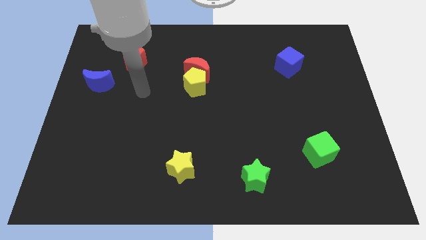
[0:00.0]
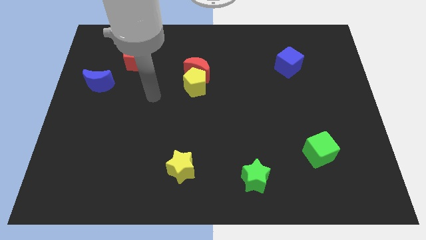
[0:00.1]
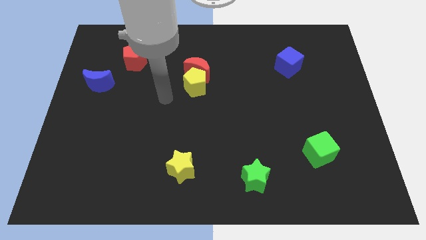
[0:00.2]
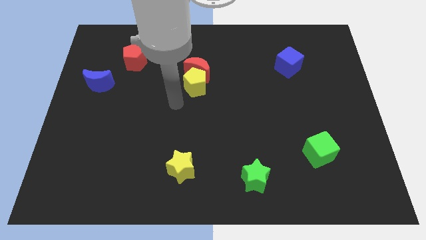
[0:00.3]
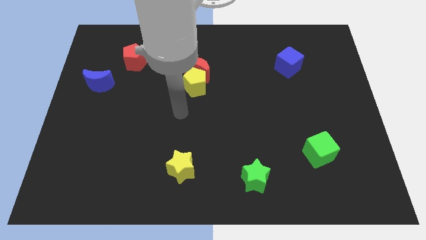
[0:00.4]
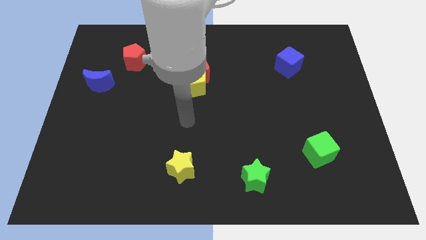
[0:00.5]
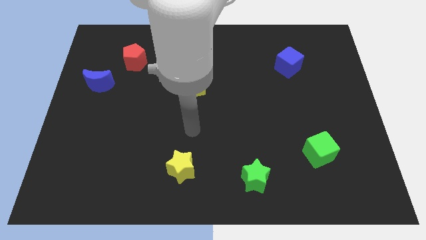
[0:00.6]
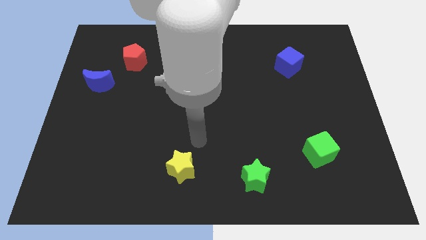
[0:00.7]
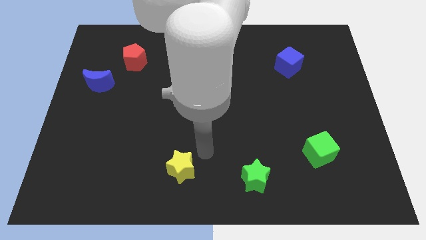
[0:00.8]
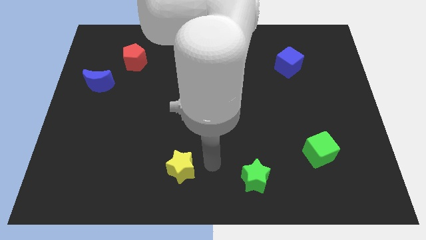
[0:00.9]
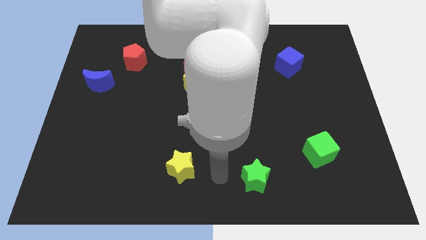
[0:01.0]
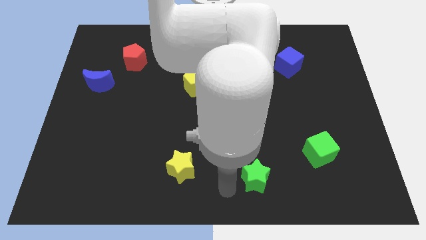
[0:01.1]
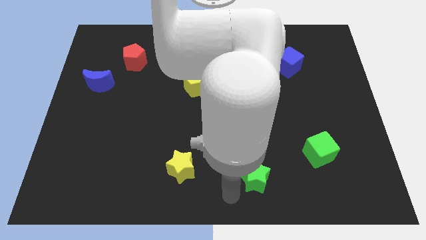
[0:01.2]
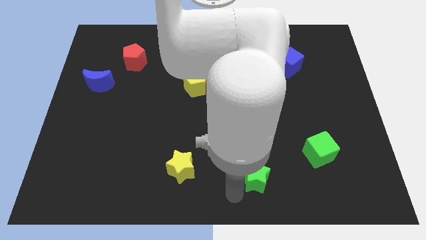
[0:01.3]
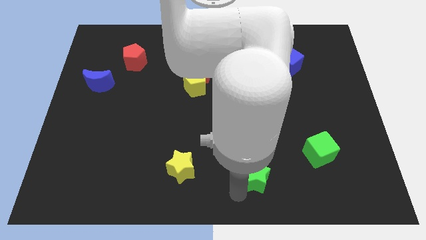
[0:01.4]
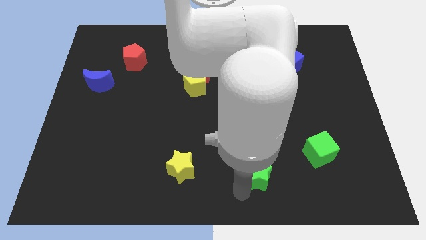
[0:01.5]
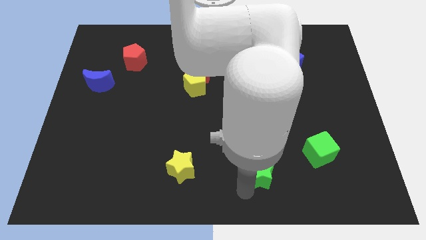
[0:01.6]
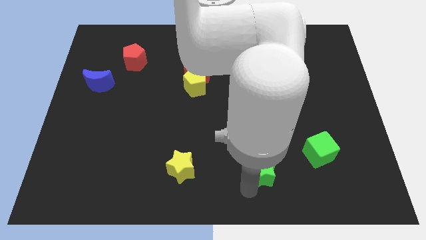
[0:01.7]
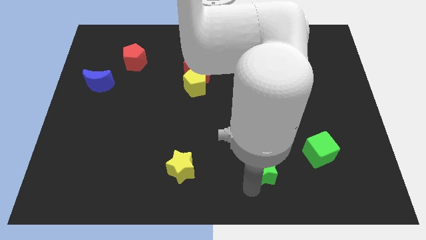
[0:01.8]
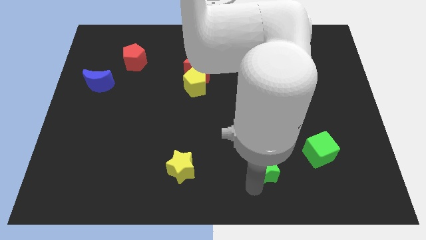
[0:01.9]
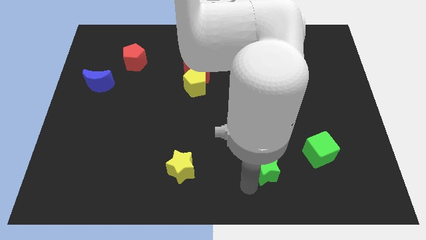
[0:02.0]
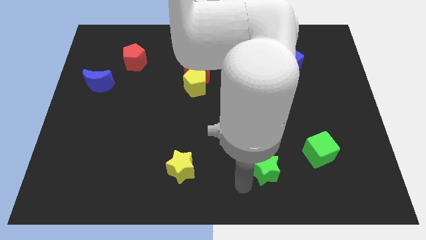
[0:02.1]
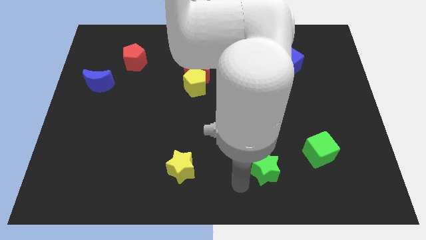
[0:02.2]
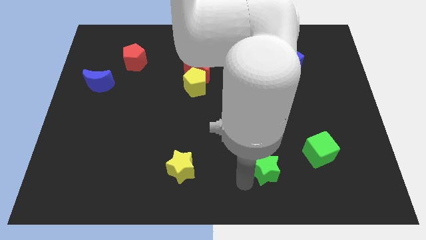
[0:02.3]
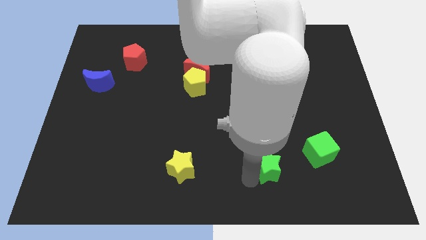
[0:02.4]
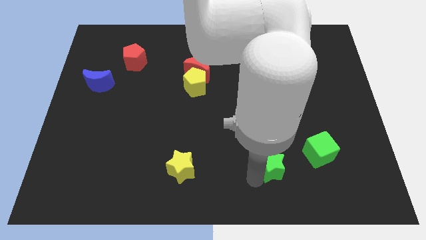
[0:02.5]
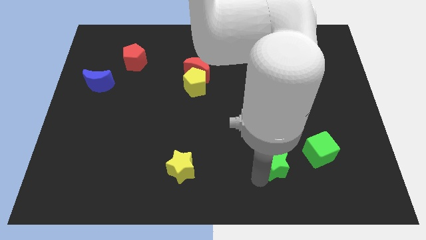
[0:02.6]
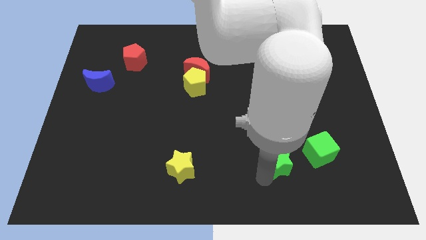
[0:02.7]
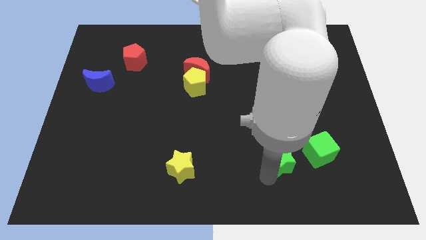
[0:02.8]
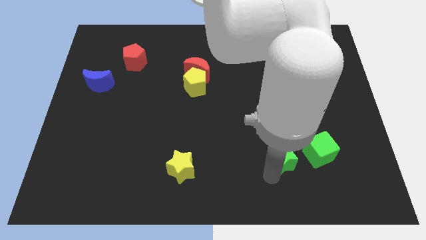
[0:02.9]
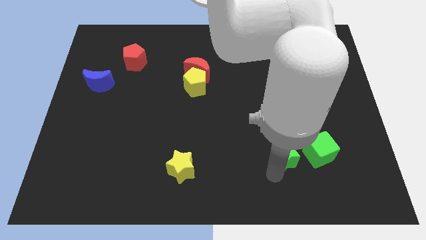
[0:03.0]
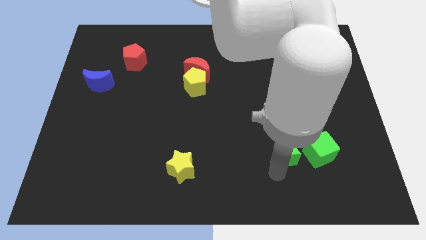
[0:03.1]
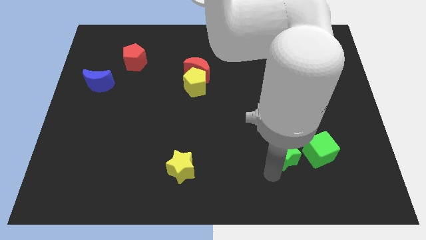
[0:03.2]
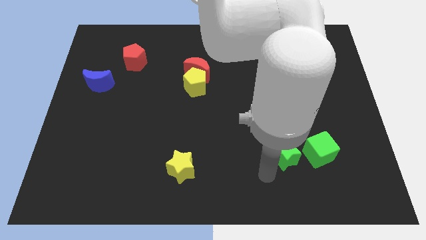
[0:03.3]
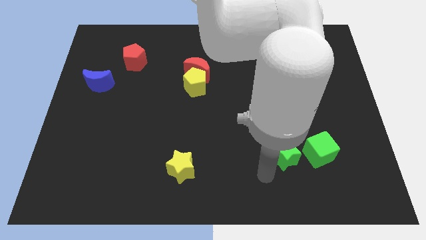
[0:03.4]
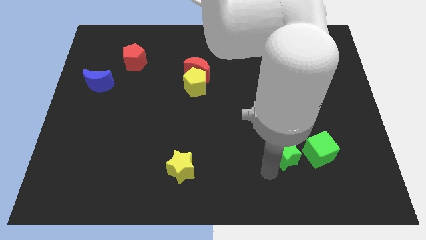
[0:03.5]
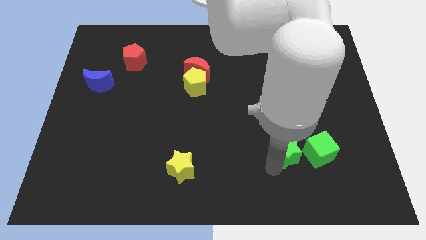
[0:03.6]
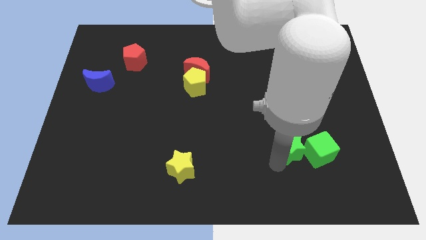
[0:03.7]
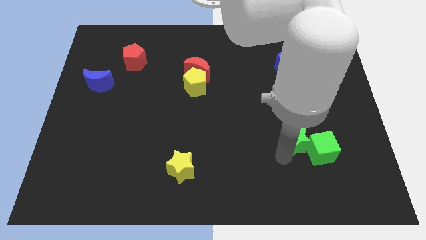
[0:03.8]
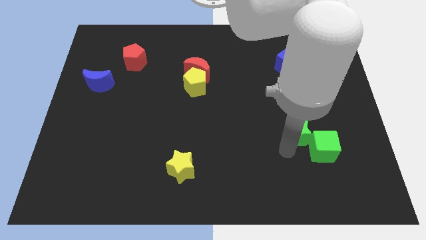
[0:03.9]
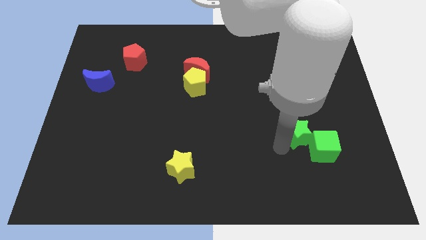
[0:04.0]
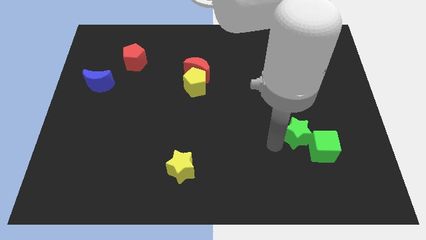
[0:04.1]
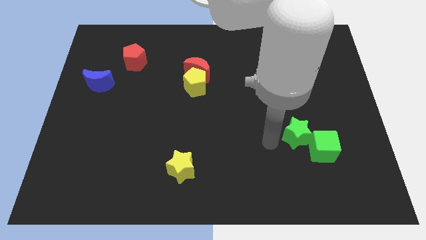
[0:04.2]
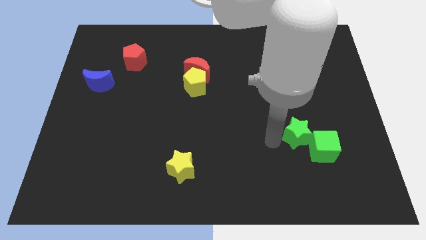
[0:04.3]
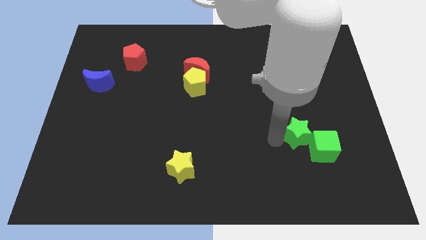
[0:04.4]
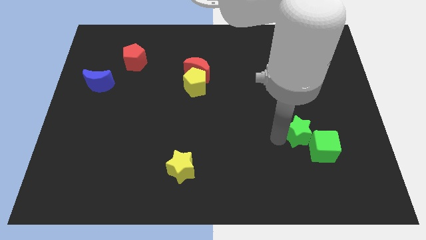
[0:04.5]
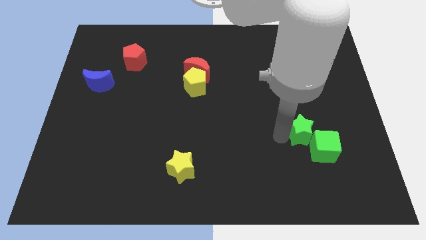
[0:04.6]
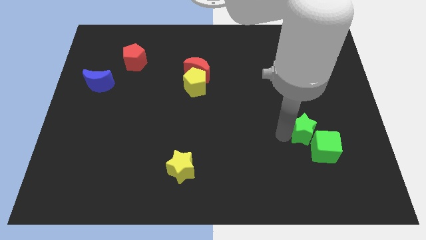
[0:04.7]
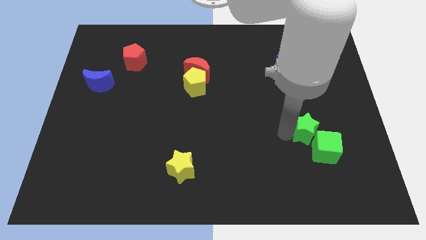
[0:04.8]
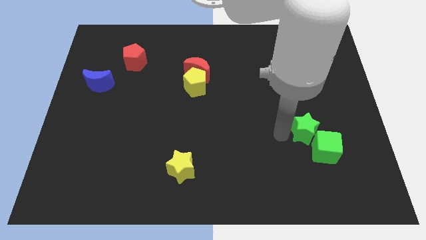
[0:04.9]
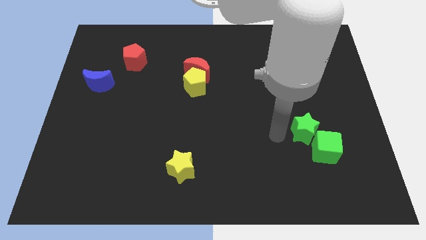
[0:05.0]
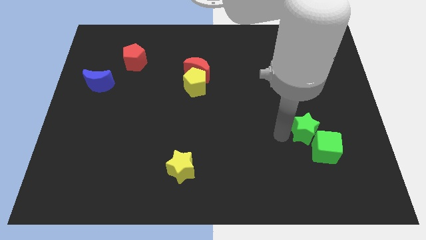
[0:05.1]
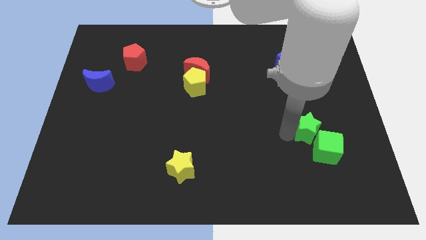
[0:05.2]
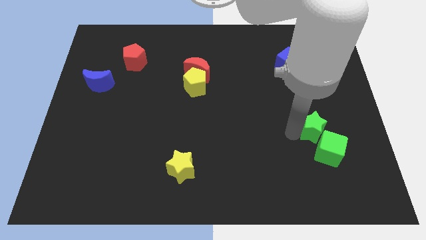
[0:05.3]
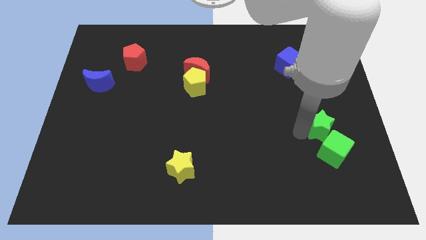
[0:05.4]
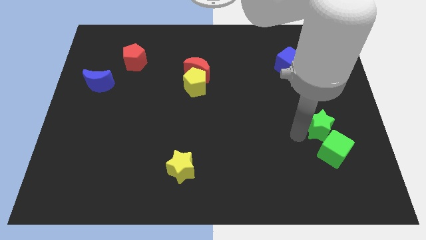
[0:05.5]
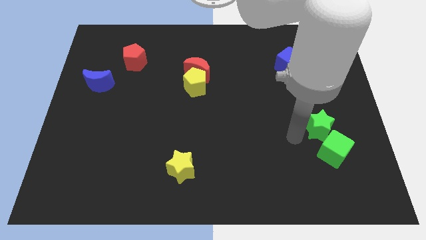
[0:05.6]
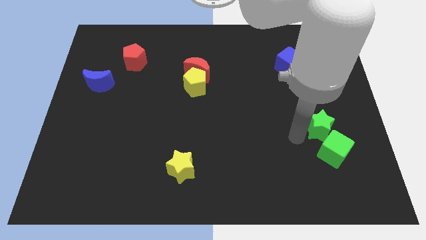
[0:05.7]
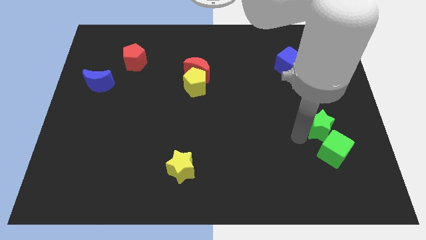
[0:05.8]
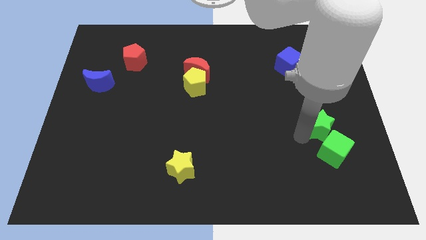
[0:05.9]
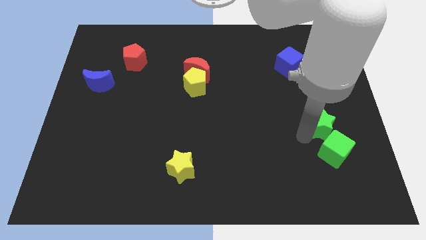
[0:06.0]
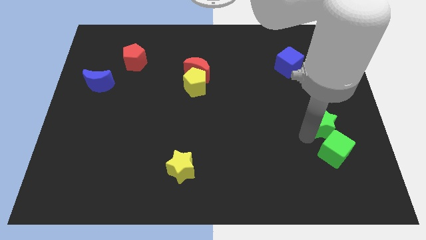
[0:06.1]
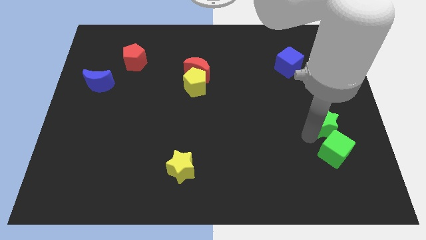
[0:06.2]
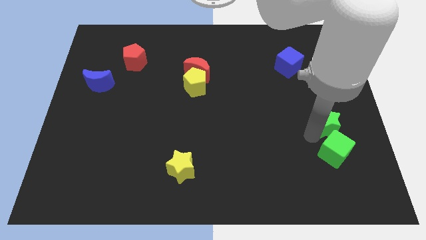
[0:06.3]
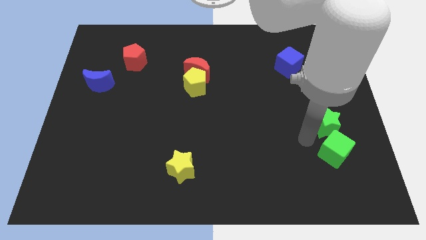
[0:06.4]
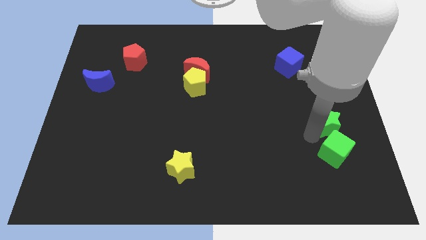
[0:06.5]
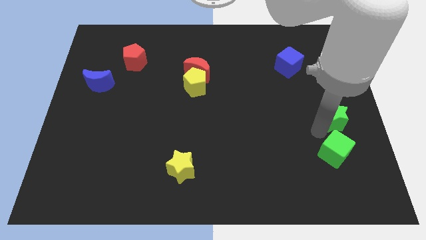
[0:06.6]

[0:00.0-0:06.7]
move the green star to the right side of the board
